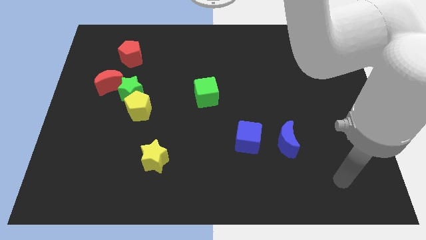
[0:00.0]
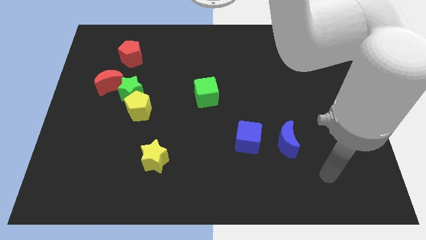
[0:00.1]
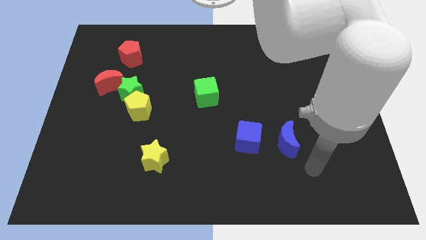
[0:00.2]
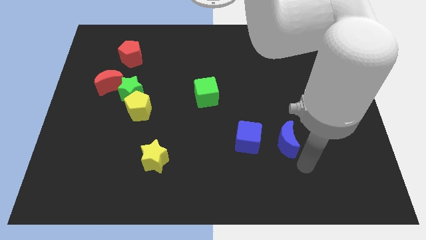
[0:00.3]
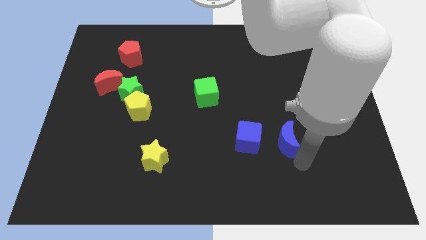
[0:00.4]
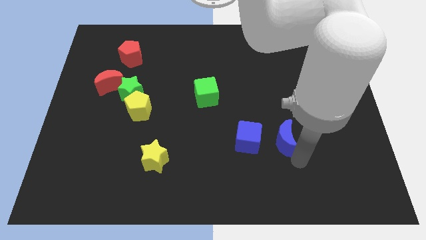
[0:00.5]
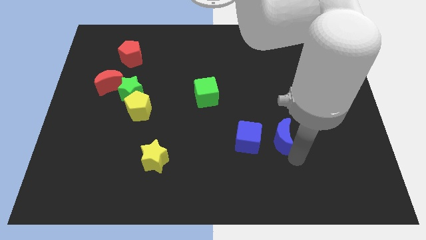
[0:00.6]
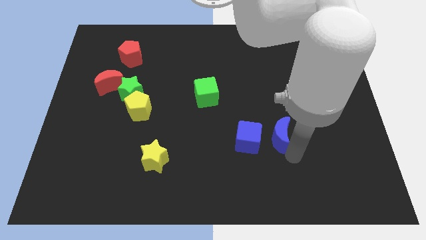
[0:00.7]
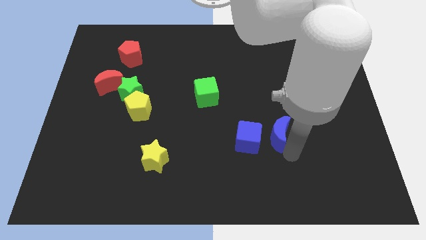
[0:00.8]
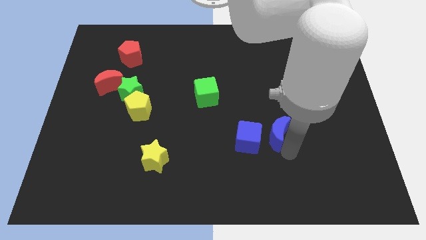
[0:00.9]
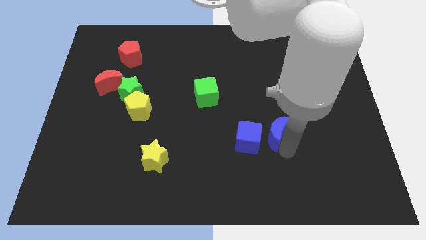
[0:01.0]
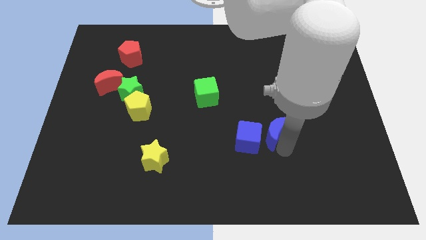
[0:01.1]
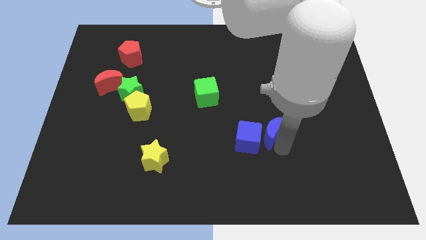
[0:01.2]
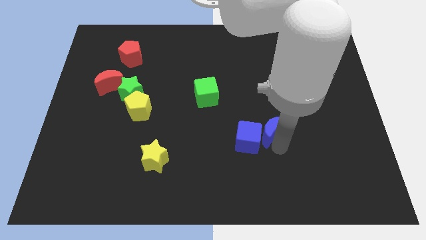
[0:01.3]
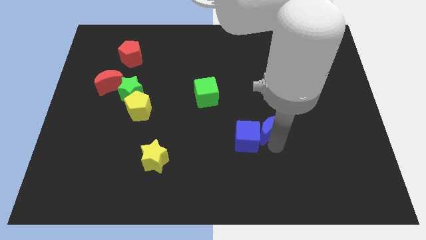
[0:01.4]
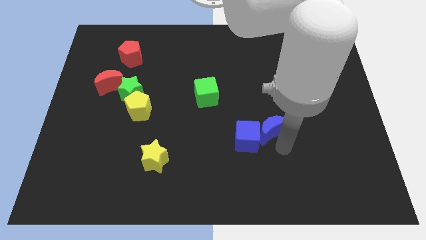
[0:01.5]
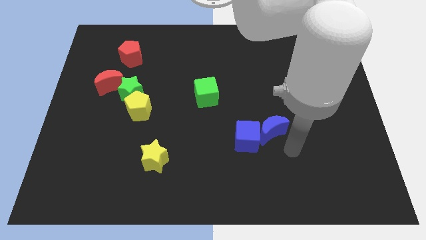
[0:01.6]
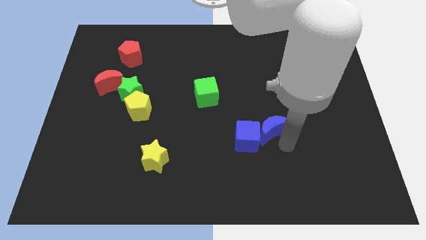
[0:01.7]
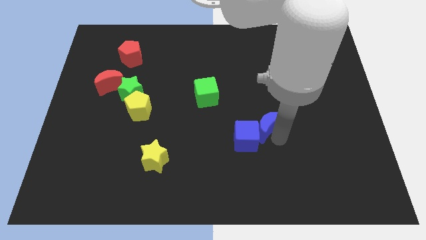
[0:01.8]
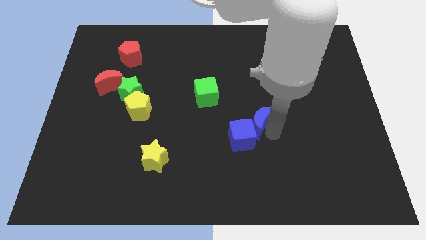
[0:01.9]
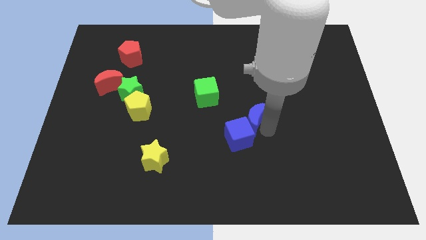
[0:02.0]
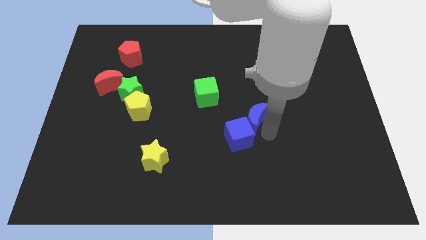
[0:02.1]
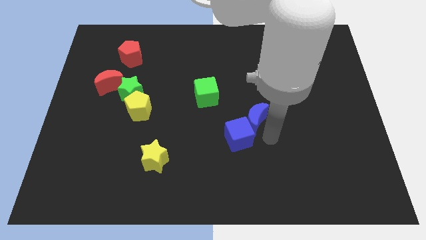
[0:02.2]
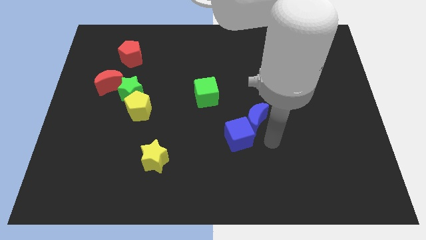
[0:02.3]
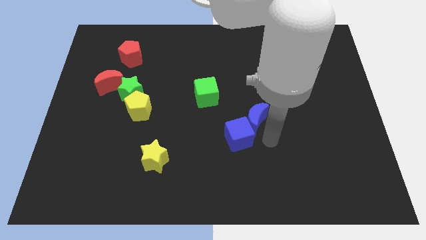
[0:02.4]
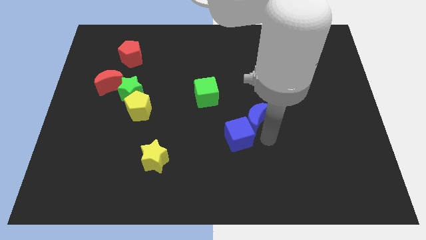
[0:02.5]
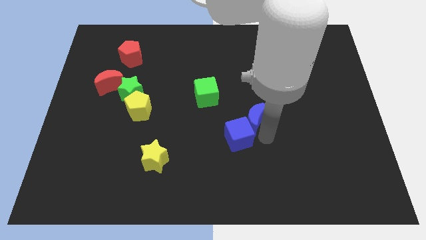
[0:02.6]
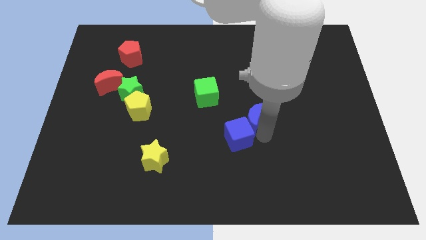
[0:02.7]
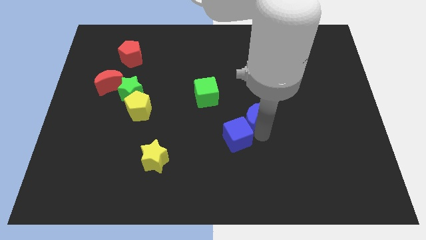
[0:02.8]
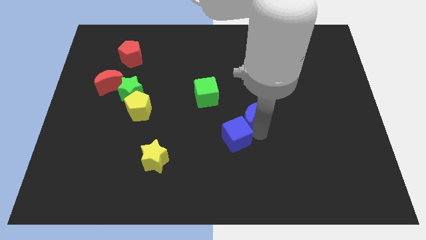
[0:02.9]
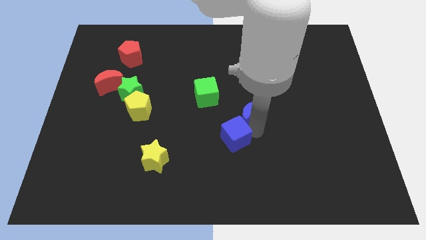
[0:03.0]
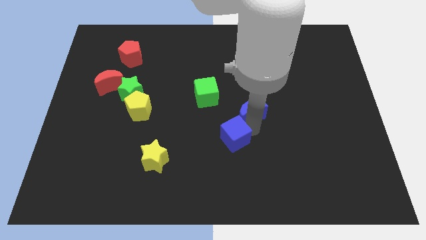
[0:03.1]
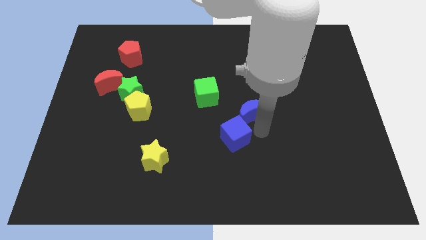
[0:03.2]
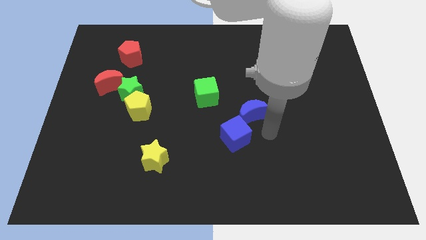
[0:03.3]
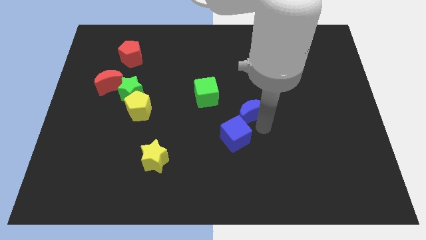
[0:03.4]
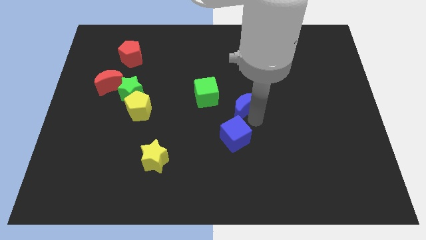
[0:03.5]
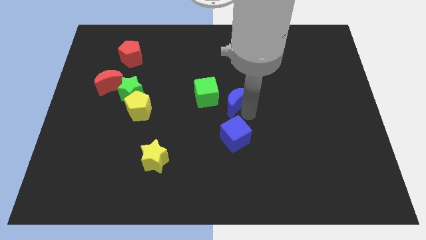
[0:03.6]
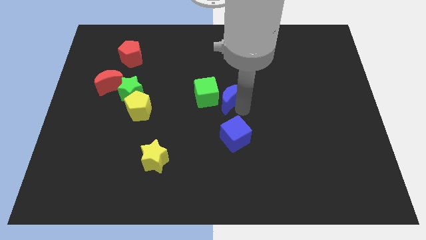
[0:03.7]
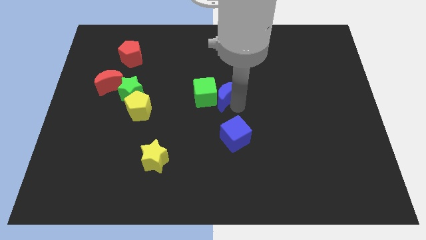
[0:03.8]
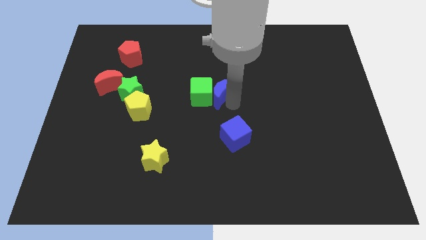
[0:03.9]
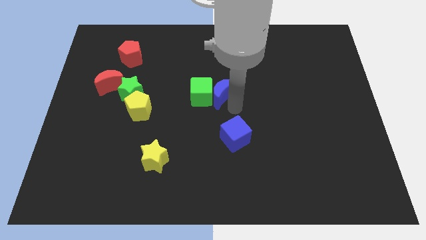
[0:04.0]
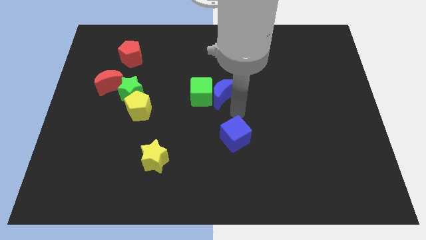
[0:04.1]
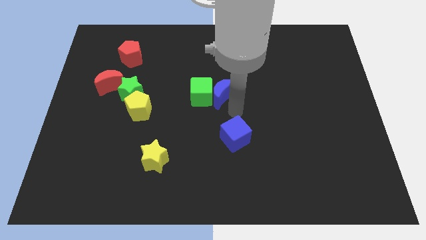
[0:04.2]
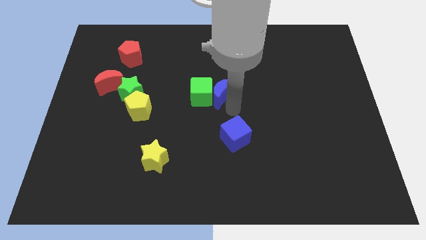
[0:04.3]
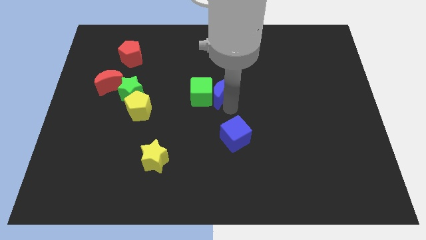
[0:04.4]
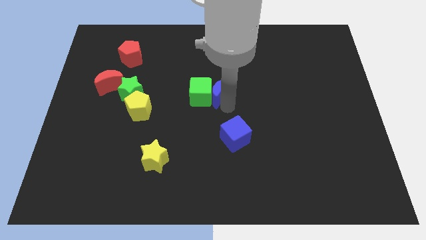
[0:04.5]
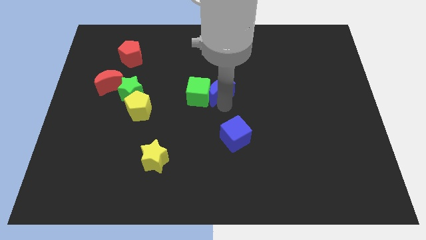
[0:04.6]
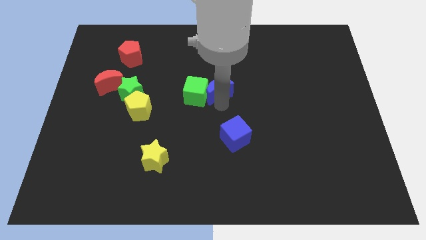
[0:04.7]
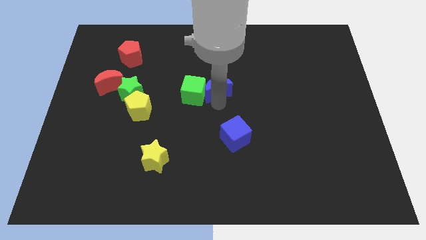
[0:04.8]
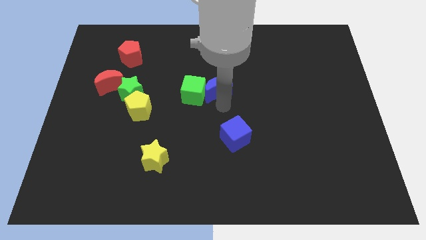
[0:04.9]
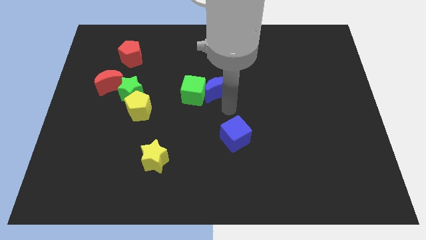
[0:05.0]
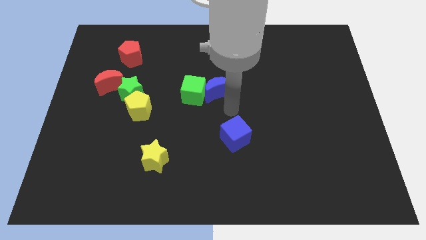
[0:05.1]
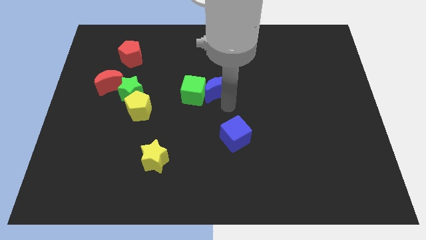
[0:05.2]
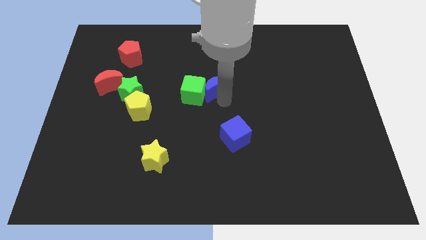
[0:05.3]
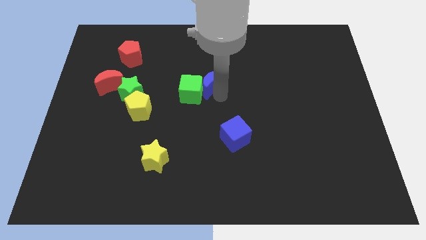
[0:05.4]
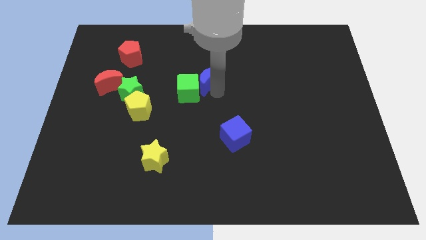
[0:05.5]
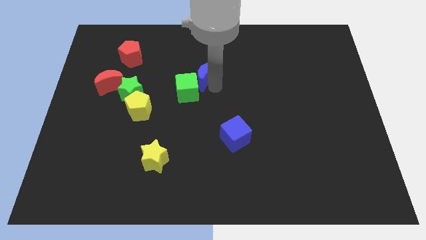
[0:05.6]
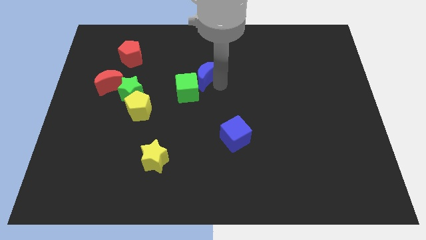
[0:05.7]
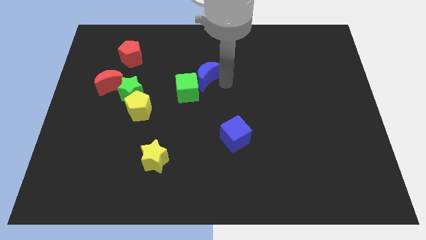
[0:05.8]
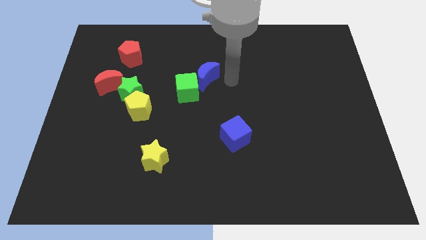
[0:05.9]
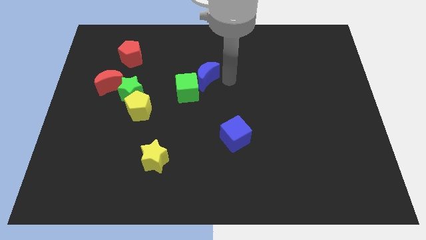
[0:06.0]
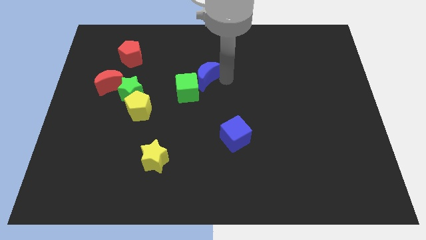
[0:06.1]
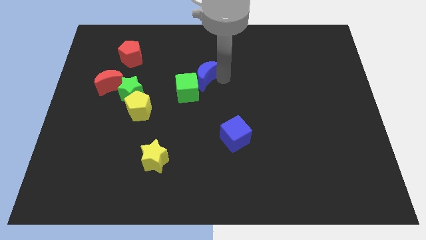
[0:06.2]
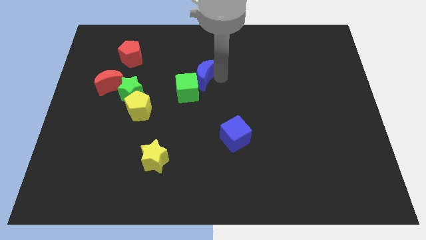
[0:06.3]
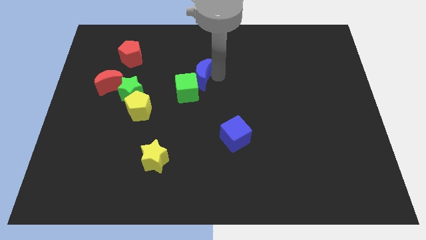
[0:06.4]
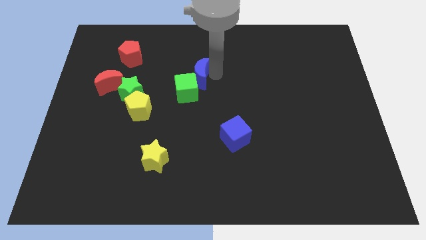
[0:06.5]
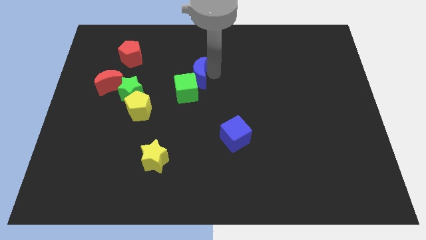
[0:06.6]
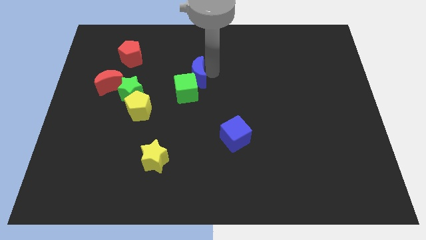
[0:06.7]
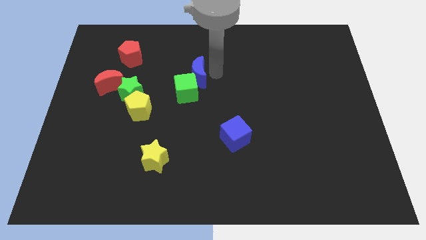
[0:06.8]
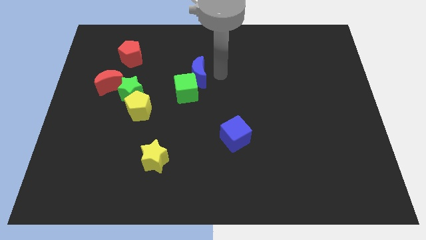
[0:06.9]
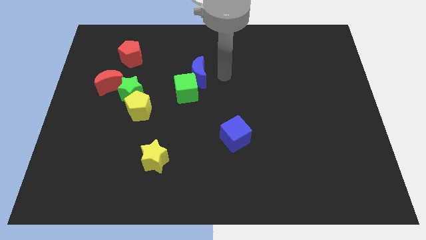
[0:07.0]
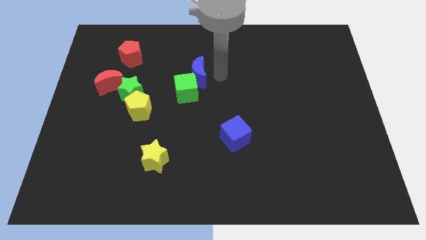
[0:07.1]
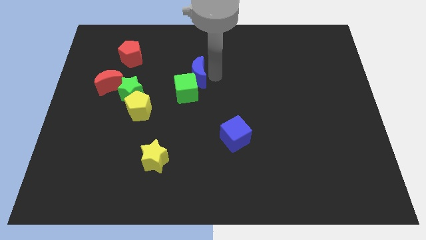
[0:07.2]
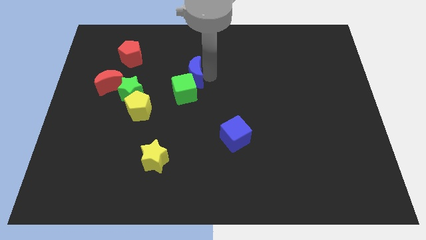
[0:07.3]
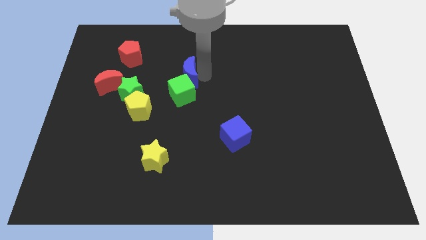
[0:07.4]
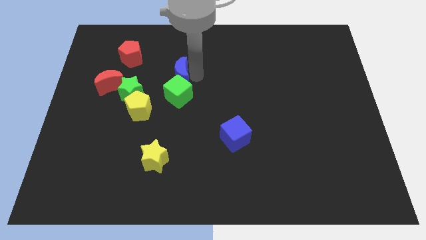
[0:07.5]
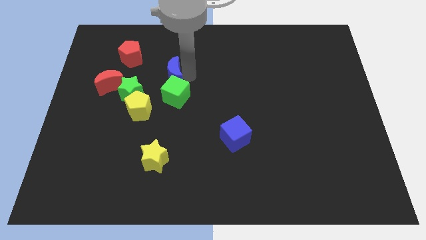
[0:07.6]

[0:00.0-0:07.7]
put the blue moon to the top right of the green star

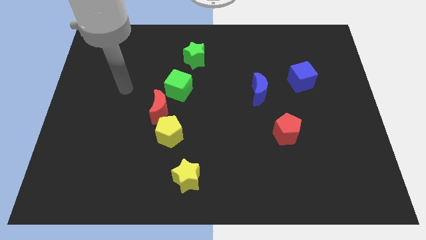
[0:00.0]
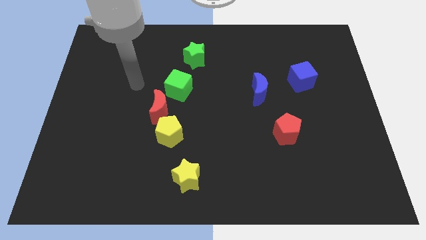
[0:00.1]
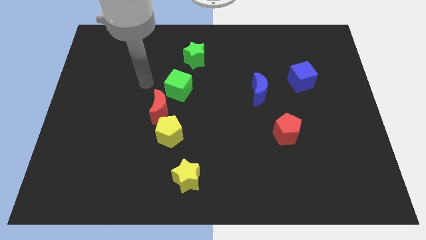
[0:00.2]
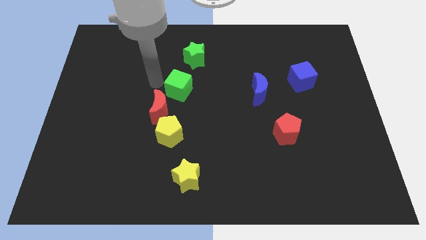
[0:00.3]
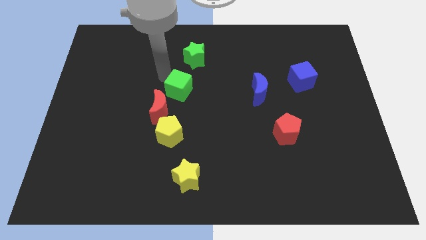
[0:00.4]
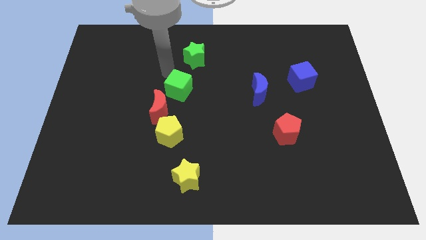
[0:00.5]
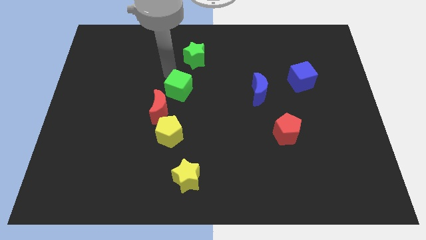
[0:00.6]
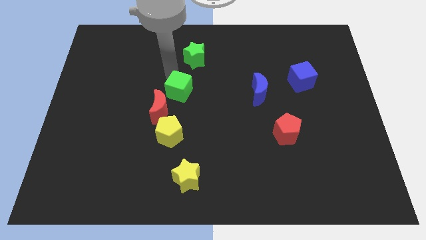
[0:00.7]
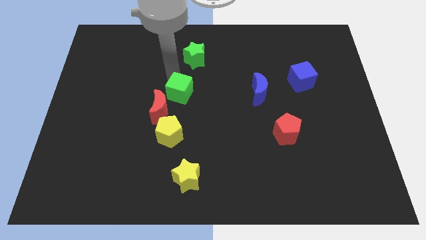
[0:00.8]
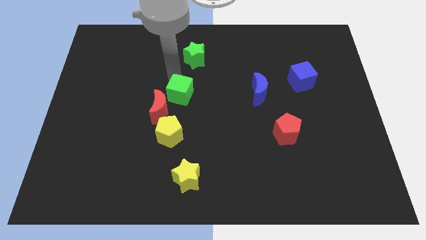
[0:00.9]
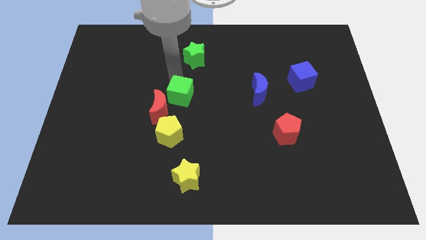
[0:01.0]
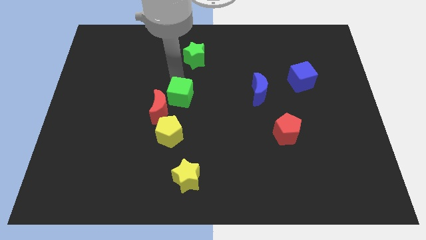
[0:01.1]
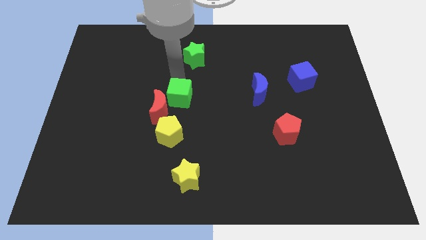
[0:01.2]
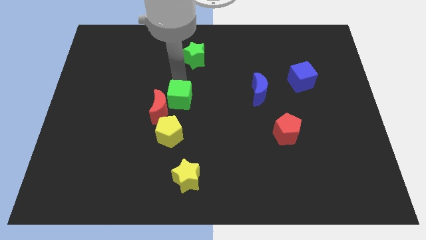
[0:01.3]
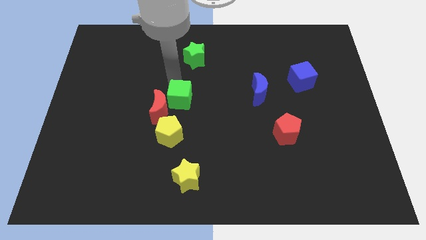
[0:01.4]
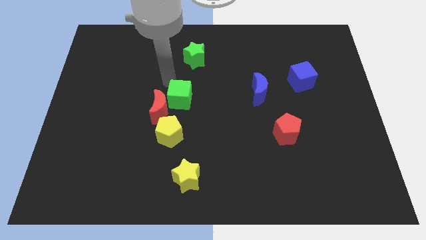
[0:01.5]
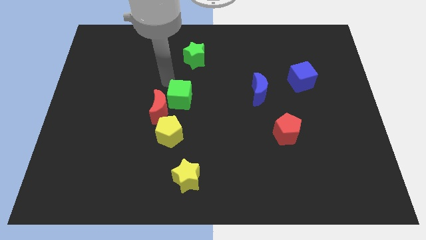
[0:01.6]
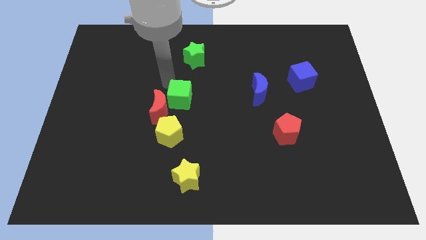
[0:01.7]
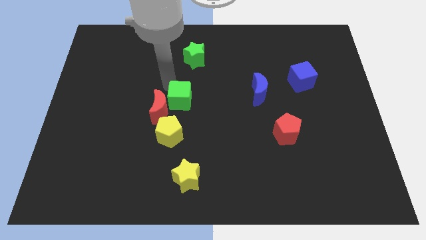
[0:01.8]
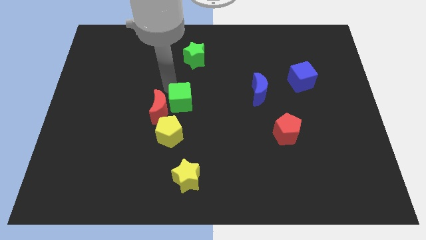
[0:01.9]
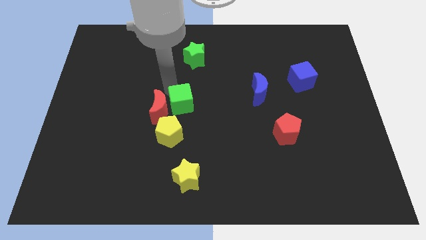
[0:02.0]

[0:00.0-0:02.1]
put the green cube to the top right side of the yellow pentagon
